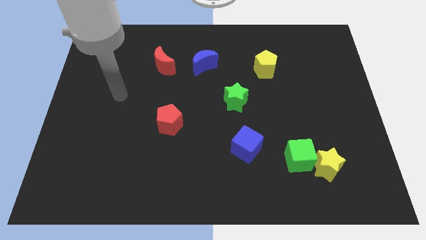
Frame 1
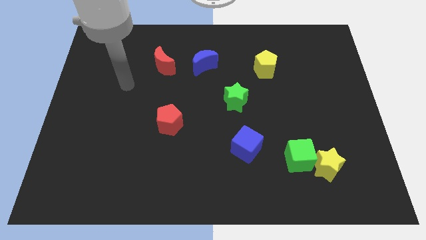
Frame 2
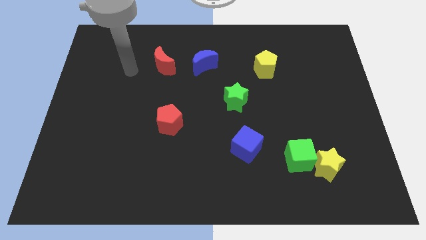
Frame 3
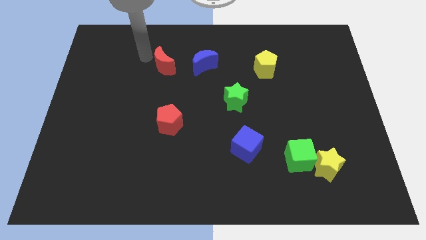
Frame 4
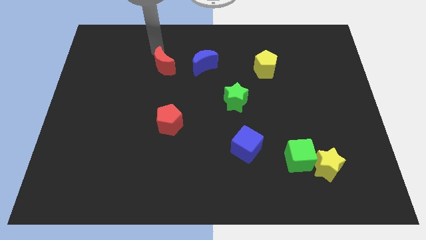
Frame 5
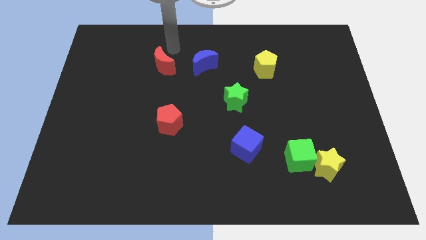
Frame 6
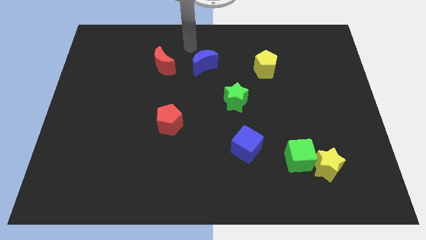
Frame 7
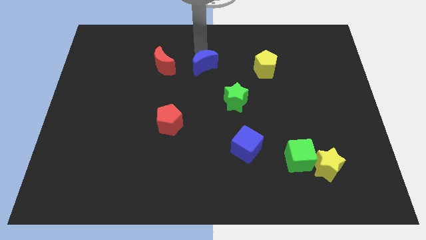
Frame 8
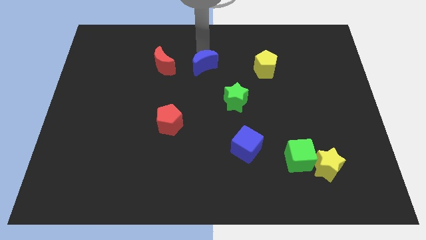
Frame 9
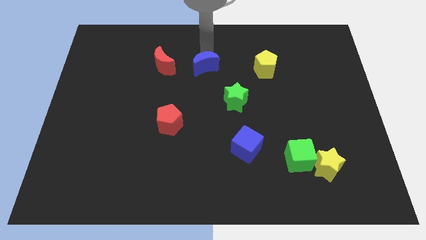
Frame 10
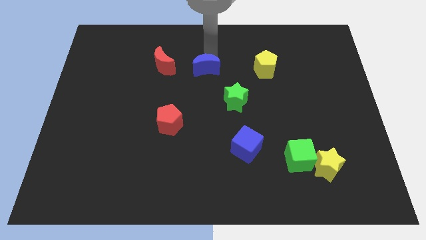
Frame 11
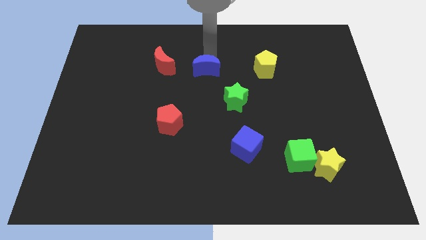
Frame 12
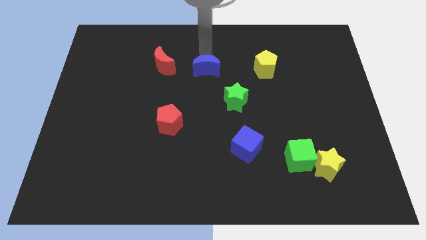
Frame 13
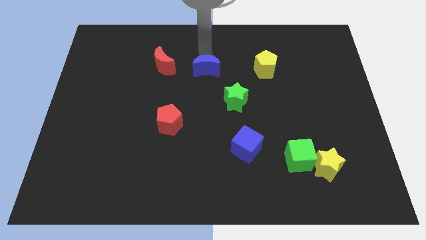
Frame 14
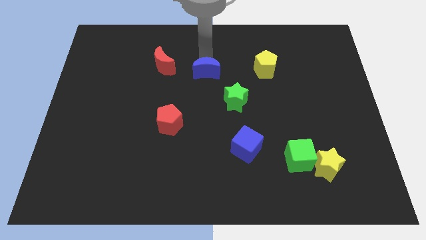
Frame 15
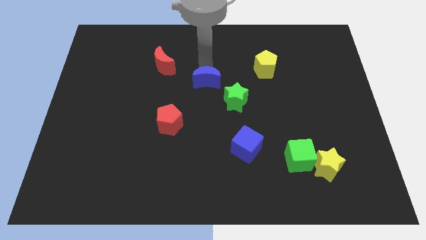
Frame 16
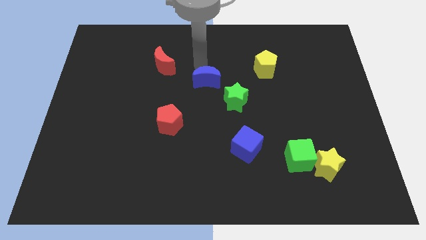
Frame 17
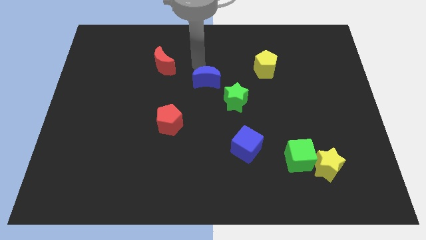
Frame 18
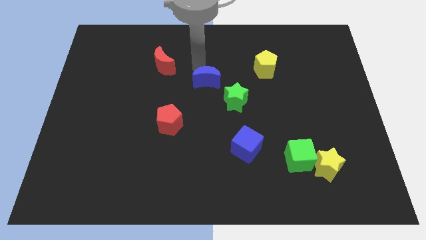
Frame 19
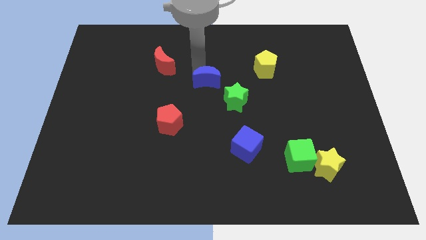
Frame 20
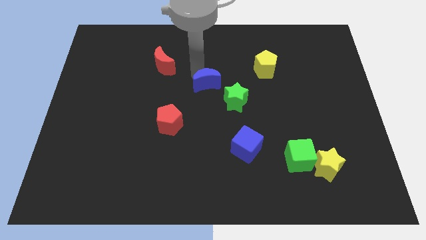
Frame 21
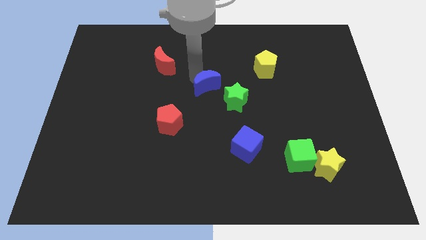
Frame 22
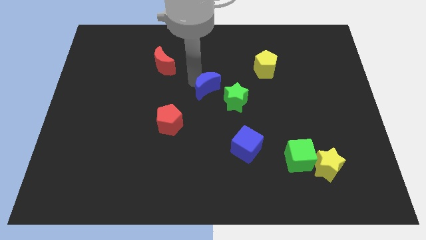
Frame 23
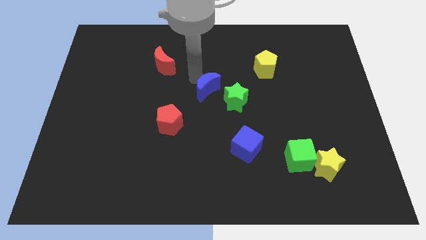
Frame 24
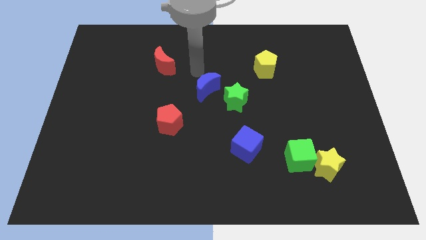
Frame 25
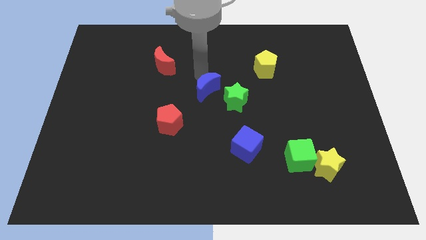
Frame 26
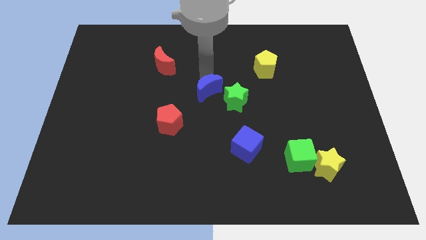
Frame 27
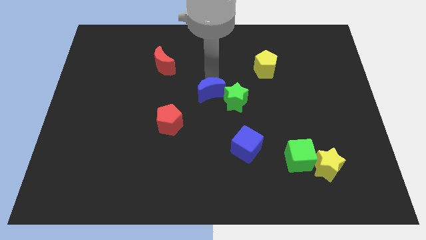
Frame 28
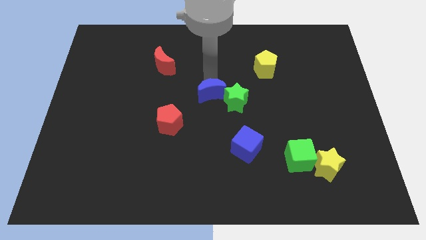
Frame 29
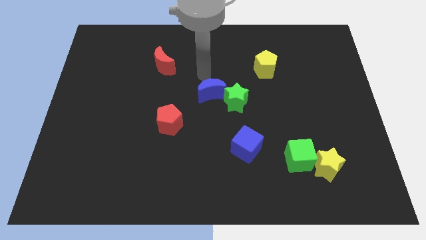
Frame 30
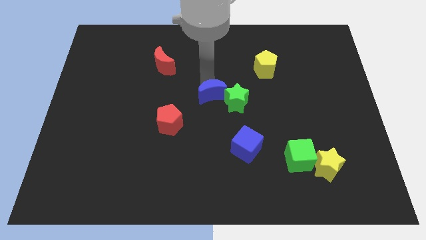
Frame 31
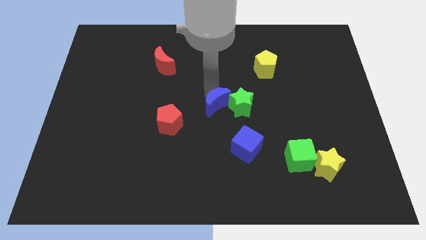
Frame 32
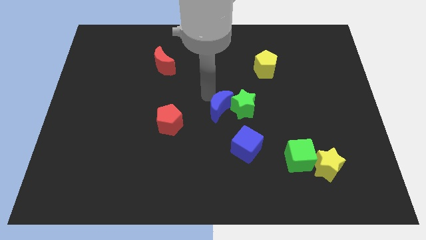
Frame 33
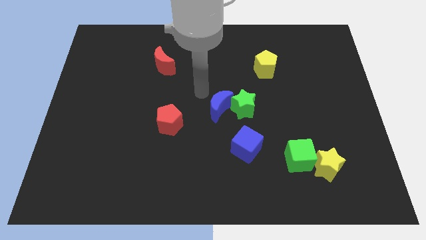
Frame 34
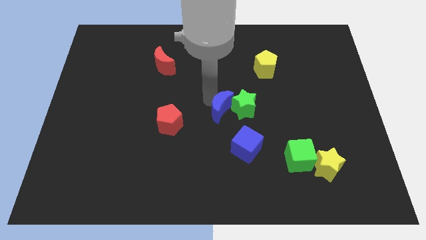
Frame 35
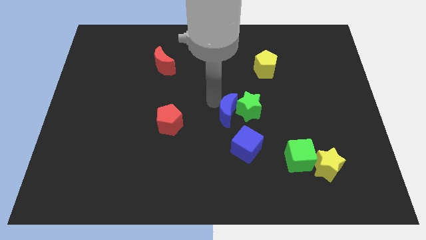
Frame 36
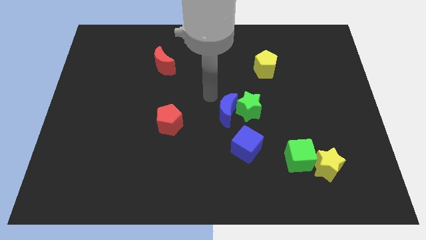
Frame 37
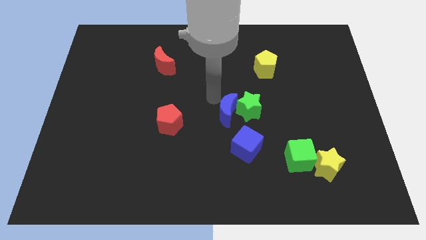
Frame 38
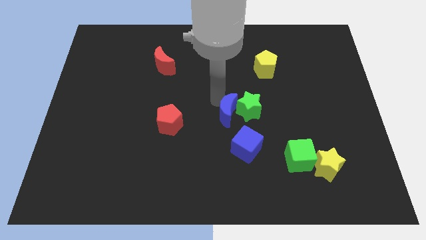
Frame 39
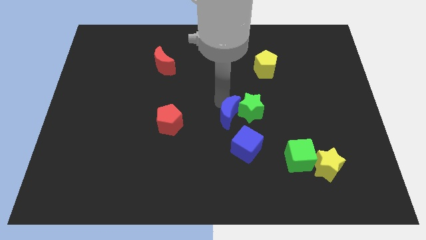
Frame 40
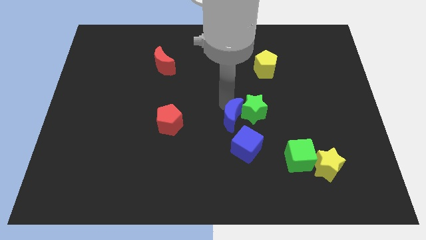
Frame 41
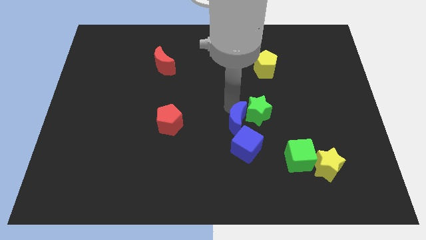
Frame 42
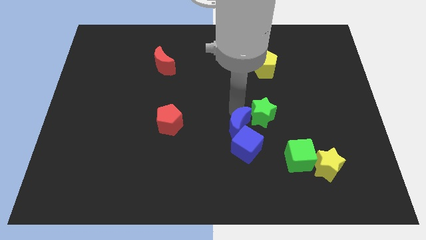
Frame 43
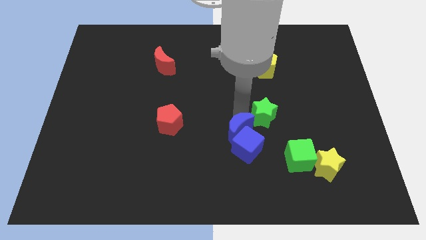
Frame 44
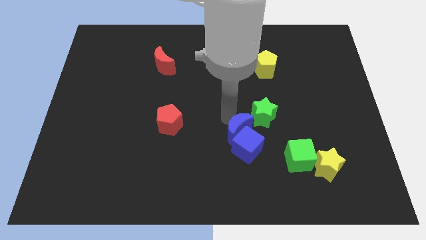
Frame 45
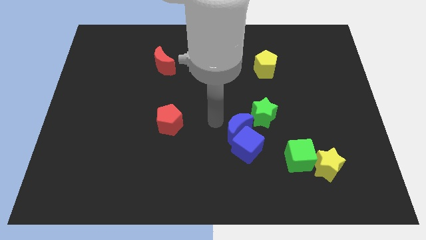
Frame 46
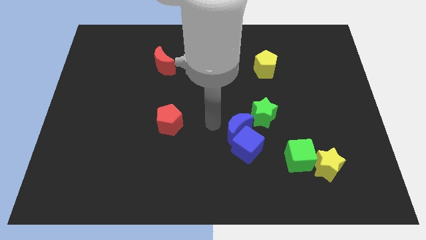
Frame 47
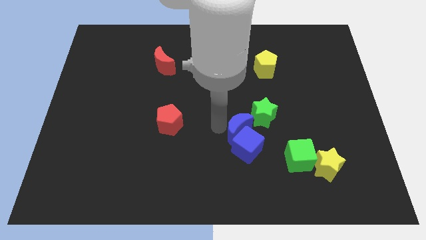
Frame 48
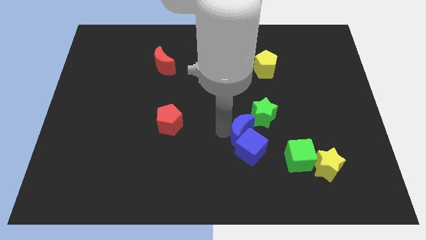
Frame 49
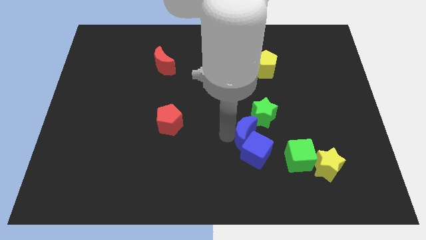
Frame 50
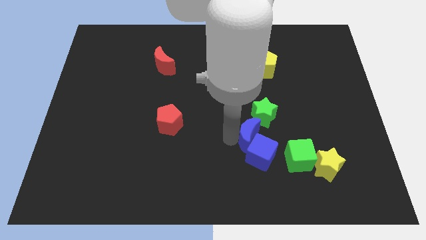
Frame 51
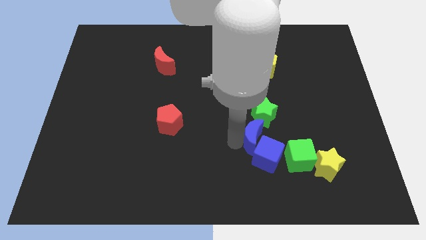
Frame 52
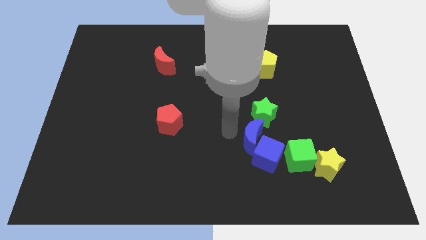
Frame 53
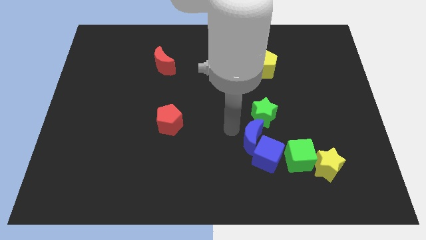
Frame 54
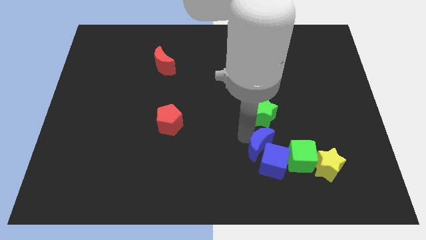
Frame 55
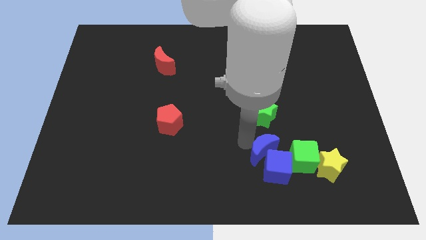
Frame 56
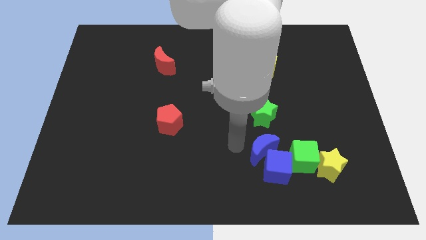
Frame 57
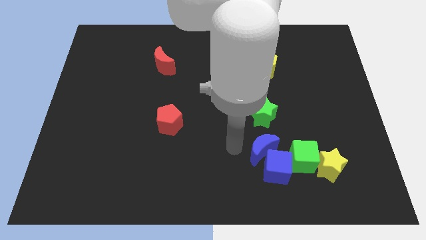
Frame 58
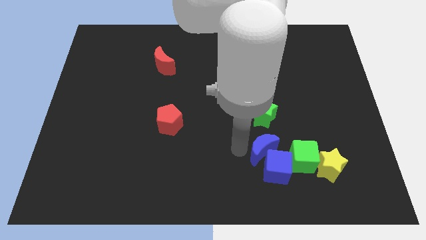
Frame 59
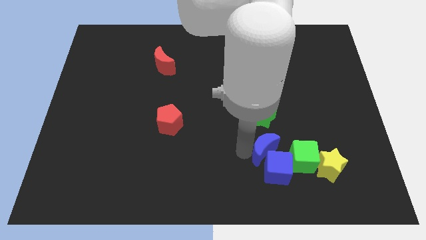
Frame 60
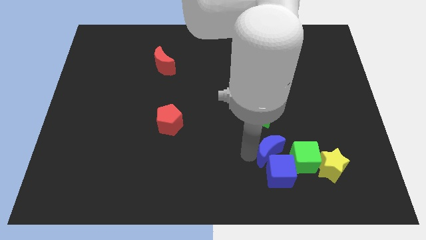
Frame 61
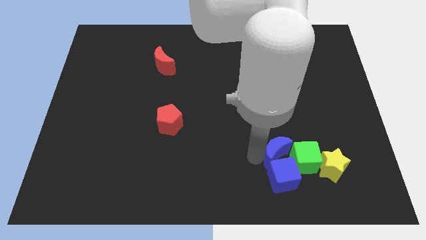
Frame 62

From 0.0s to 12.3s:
move the blue moon next to the green cube

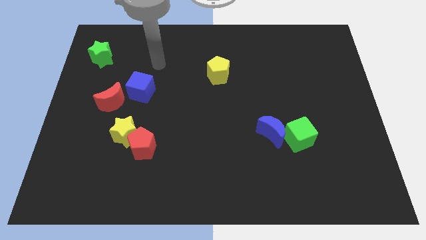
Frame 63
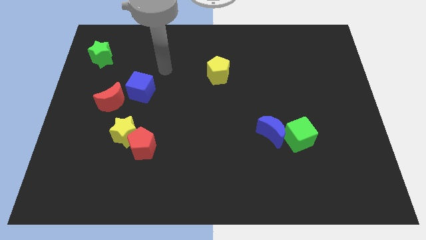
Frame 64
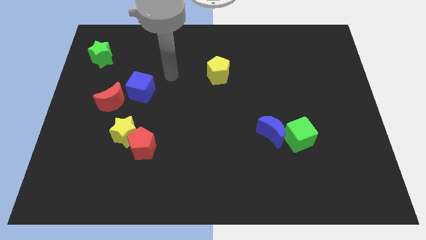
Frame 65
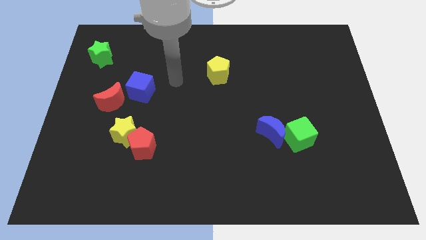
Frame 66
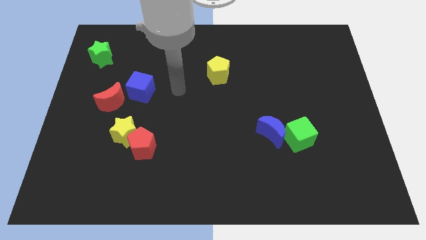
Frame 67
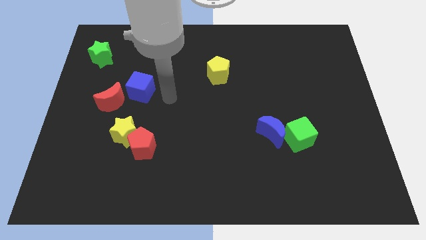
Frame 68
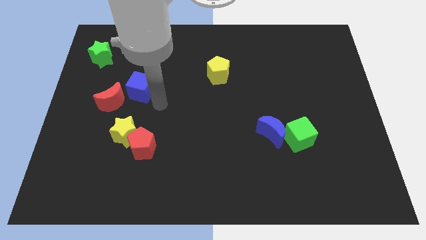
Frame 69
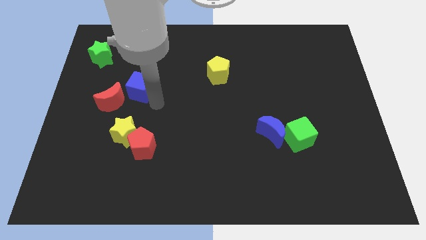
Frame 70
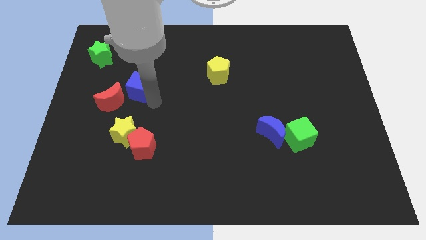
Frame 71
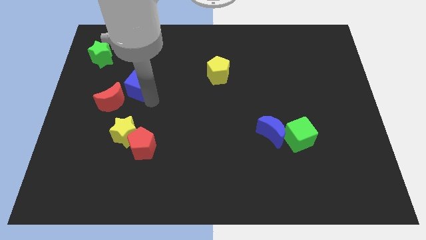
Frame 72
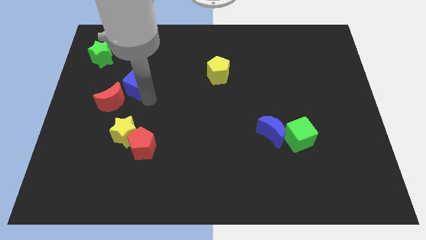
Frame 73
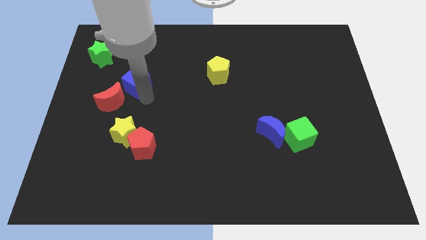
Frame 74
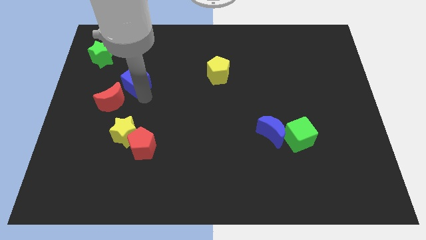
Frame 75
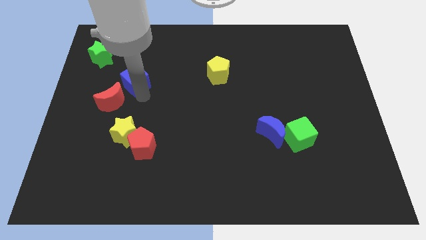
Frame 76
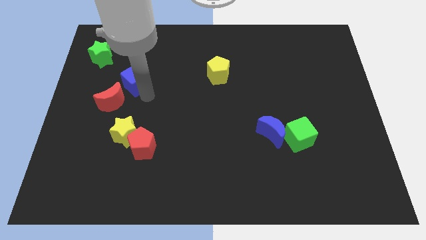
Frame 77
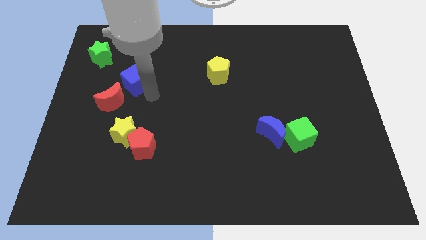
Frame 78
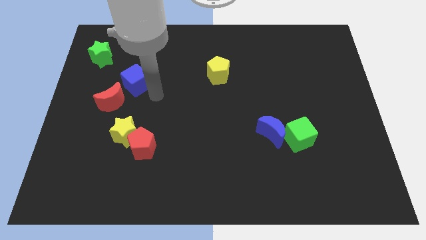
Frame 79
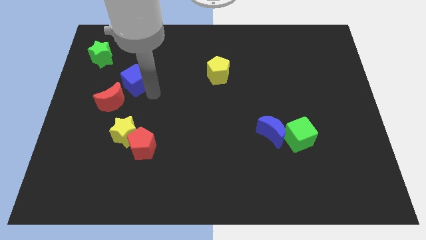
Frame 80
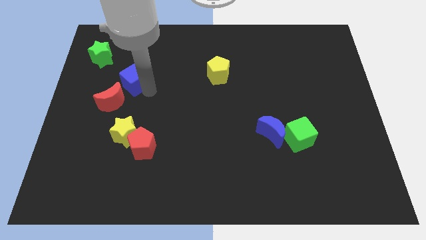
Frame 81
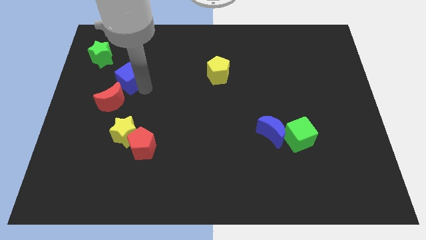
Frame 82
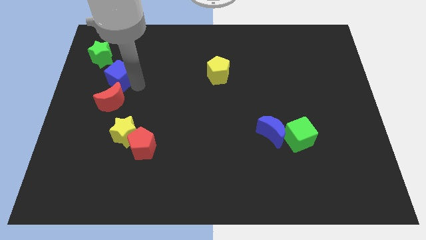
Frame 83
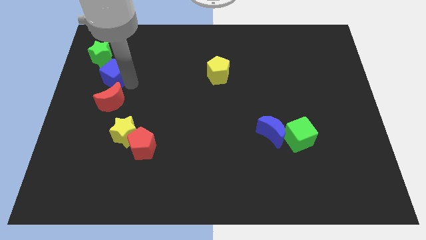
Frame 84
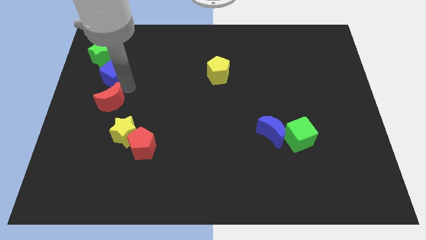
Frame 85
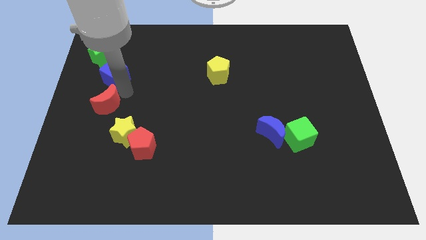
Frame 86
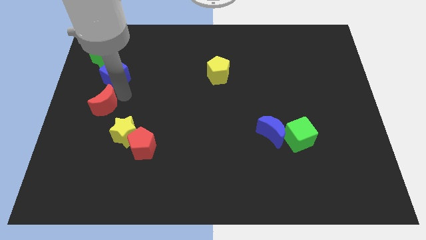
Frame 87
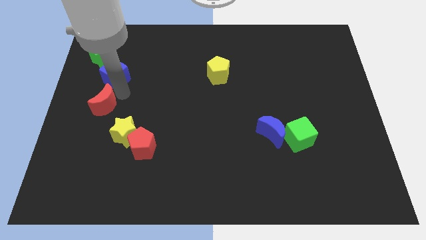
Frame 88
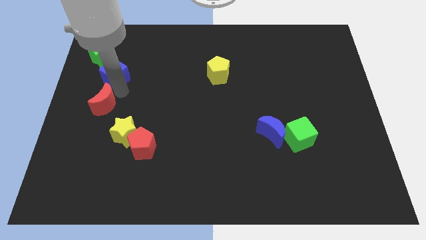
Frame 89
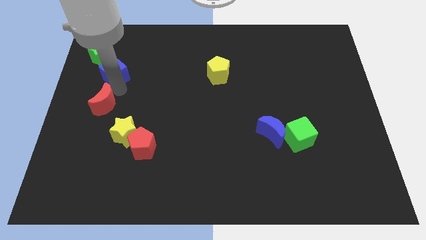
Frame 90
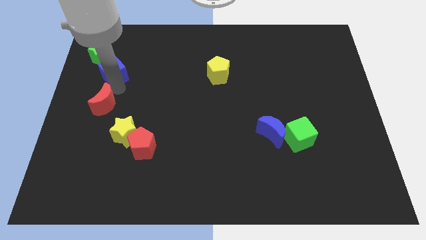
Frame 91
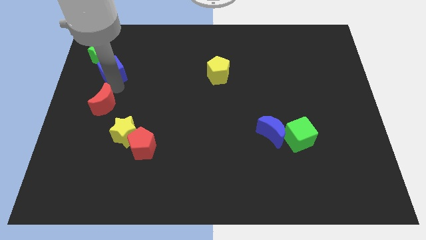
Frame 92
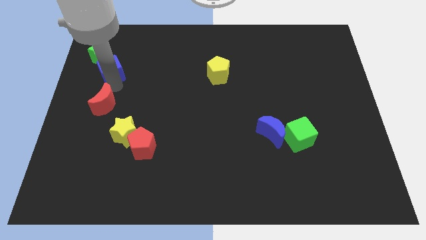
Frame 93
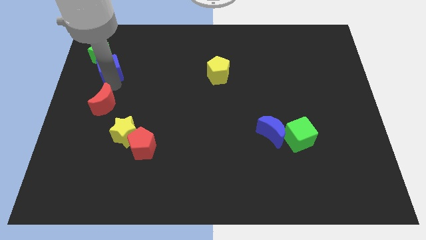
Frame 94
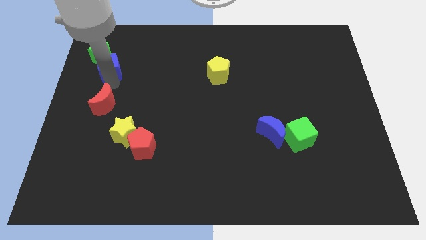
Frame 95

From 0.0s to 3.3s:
push the blue cube to the green star
